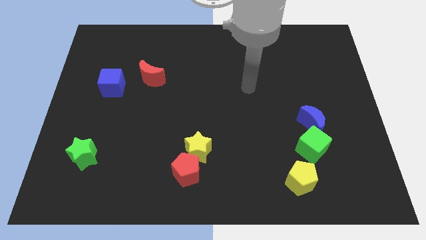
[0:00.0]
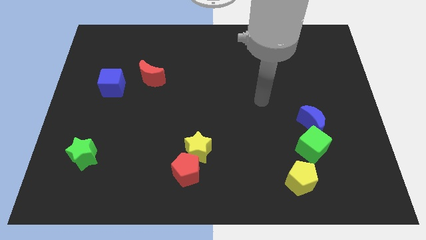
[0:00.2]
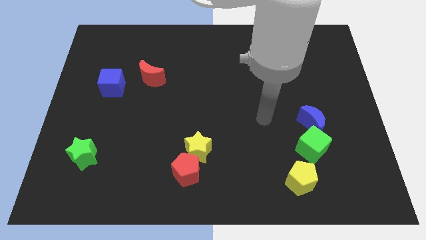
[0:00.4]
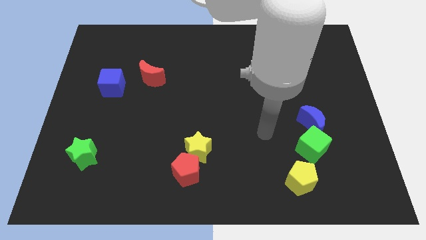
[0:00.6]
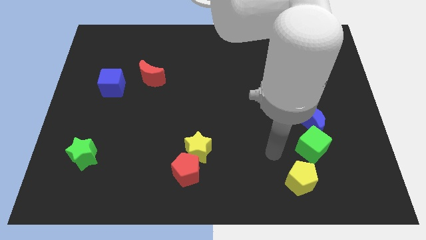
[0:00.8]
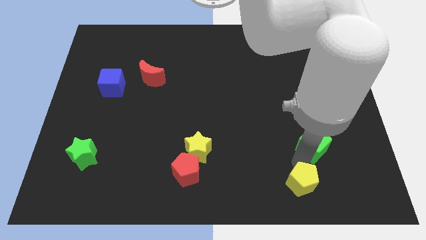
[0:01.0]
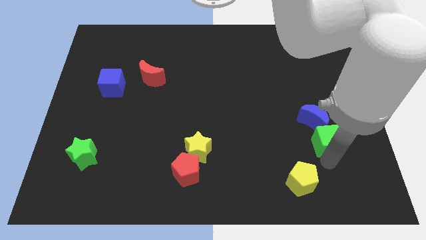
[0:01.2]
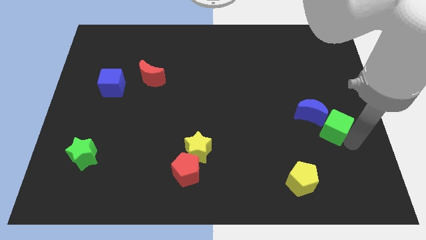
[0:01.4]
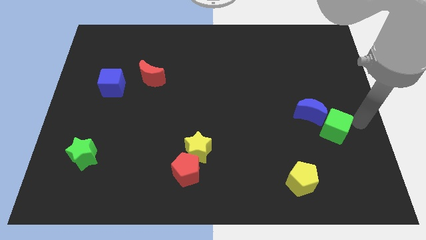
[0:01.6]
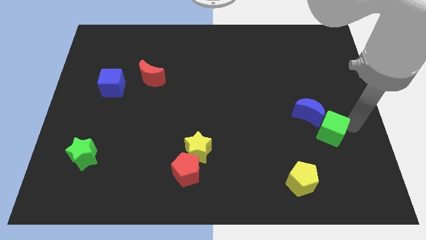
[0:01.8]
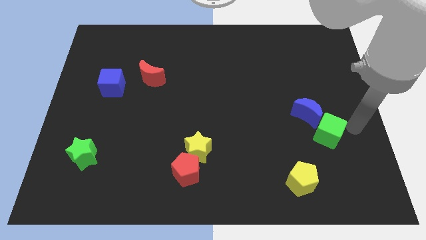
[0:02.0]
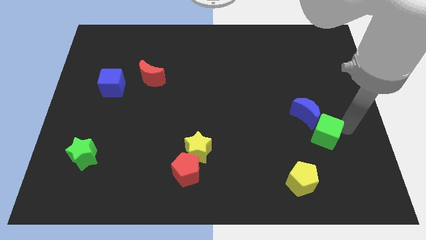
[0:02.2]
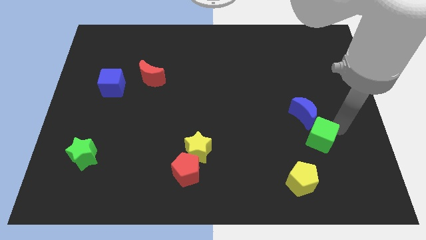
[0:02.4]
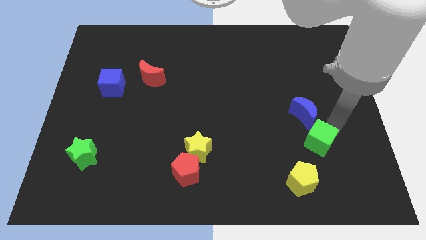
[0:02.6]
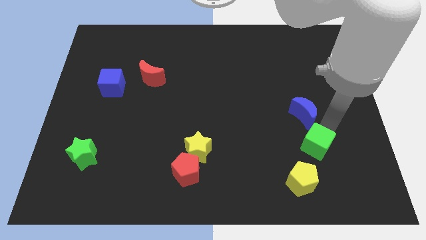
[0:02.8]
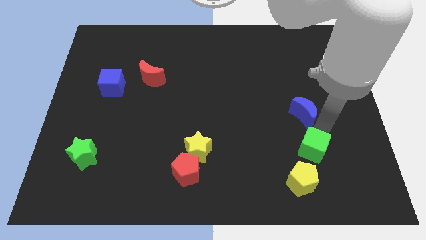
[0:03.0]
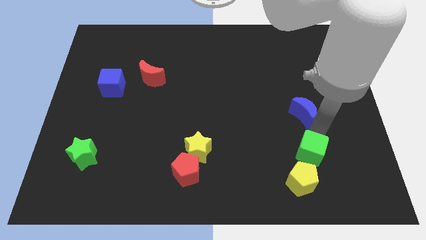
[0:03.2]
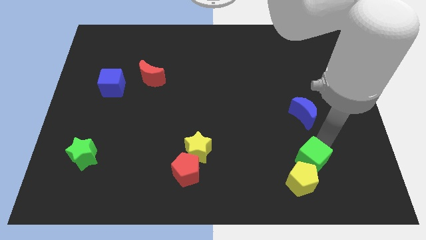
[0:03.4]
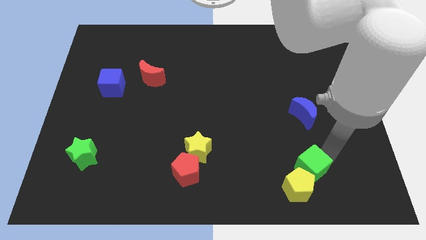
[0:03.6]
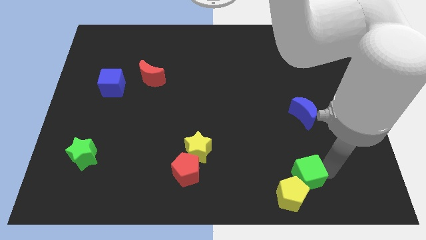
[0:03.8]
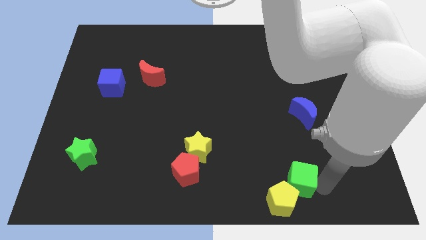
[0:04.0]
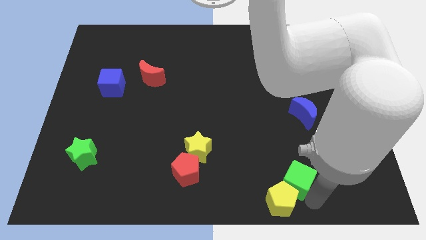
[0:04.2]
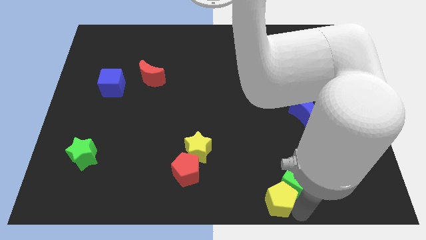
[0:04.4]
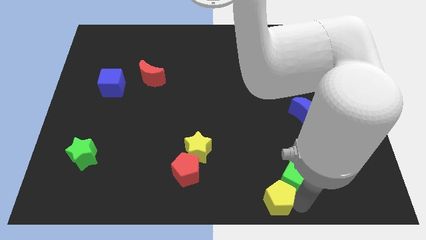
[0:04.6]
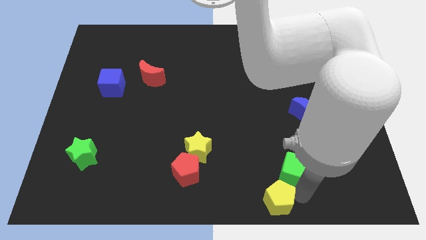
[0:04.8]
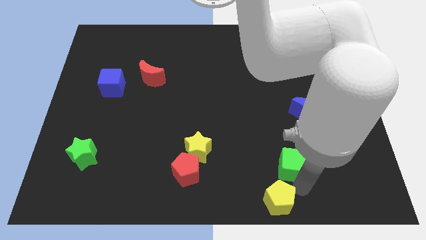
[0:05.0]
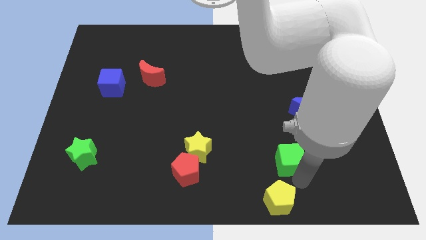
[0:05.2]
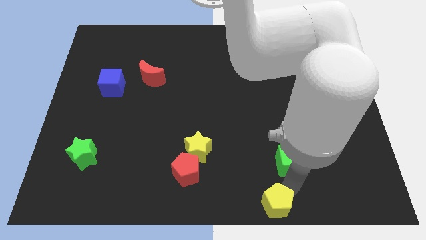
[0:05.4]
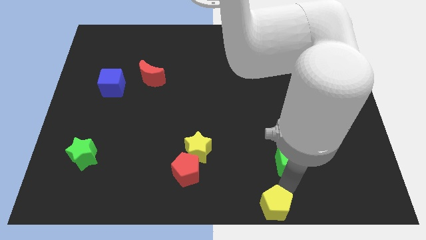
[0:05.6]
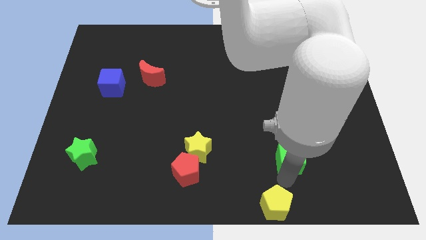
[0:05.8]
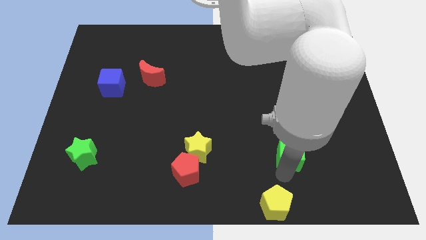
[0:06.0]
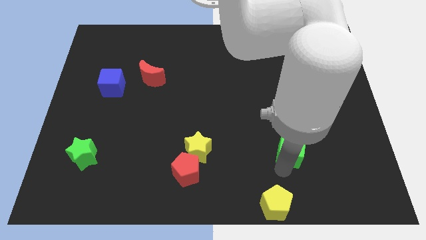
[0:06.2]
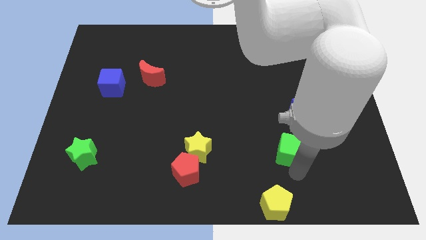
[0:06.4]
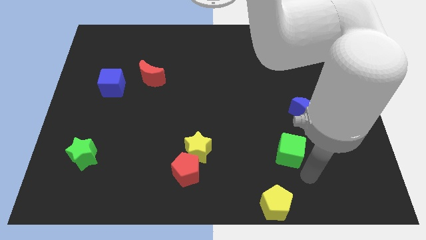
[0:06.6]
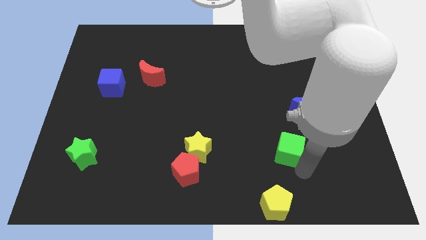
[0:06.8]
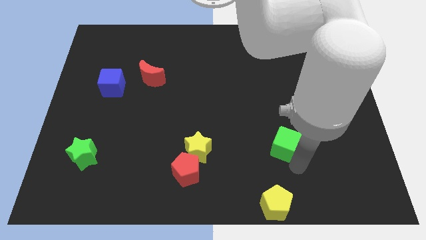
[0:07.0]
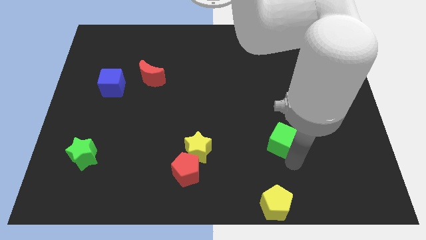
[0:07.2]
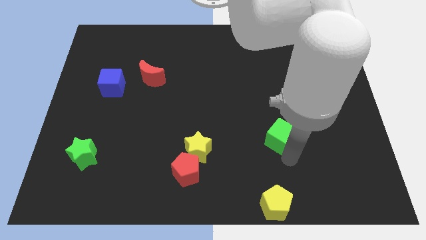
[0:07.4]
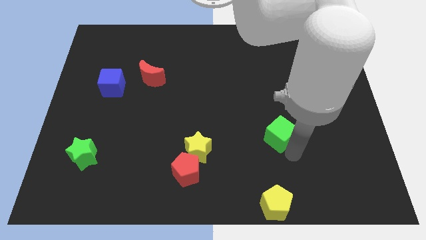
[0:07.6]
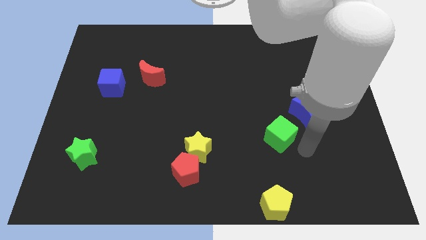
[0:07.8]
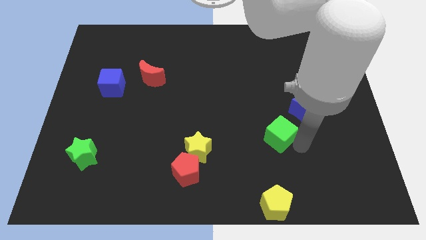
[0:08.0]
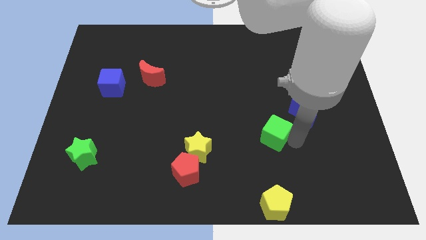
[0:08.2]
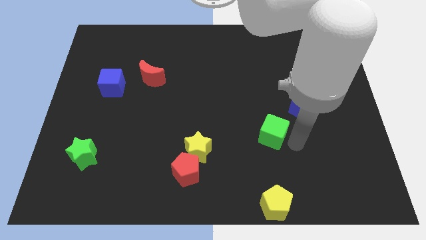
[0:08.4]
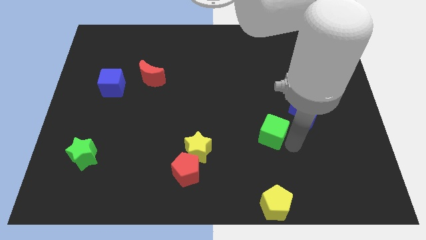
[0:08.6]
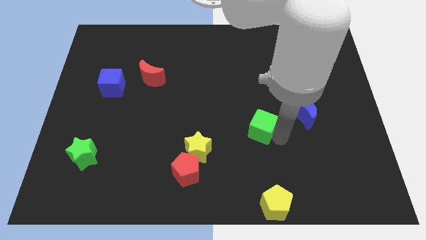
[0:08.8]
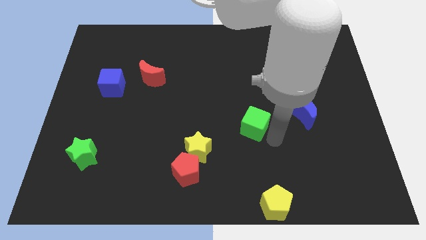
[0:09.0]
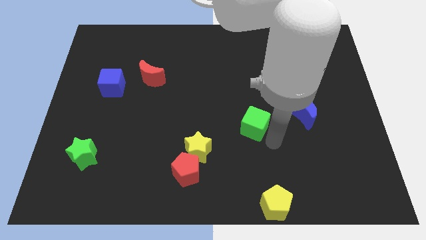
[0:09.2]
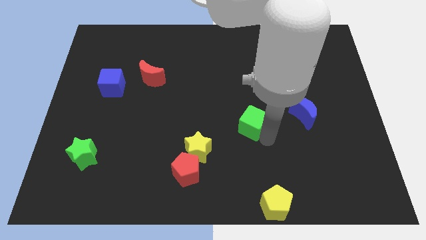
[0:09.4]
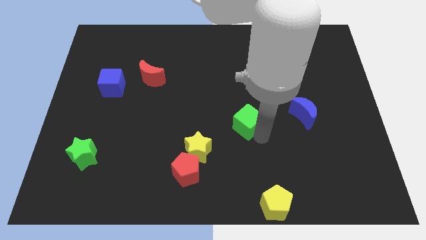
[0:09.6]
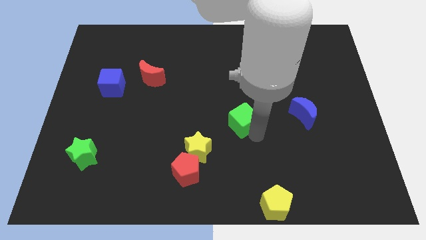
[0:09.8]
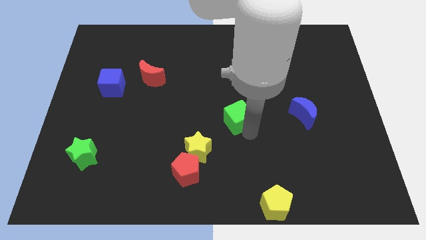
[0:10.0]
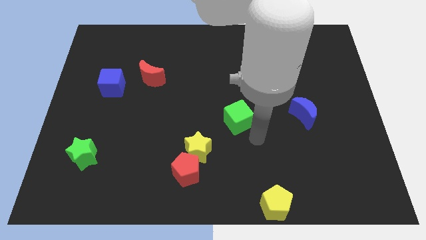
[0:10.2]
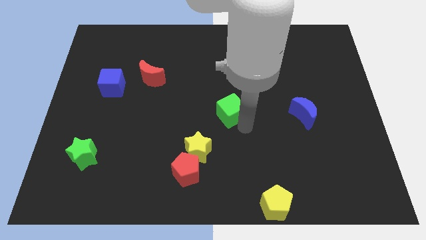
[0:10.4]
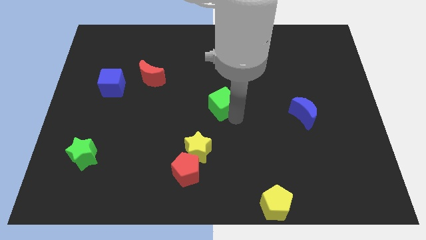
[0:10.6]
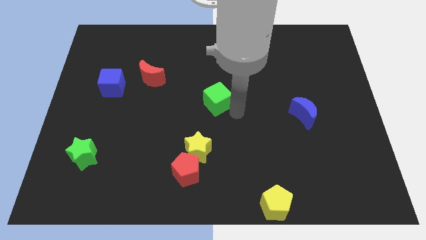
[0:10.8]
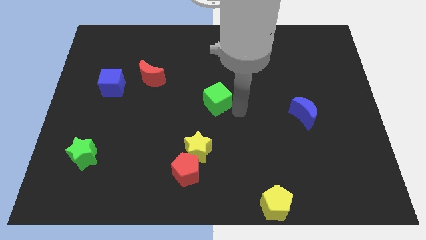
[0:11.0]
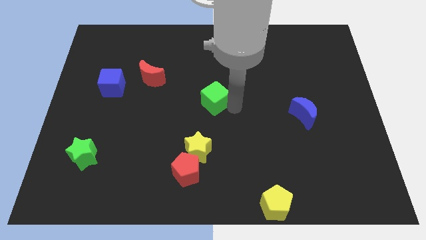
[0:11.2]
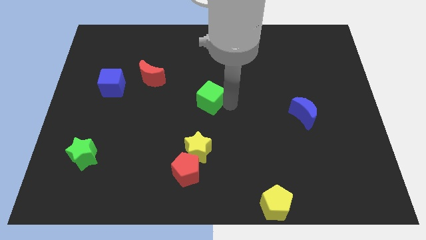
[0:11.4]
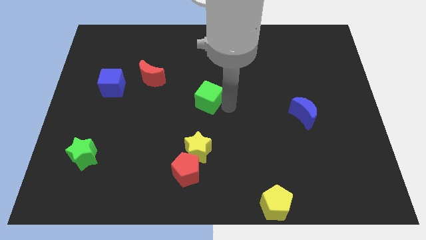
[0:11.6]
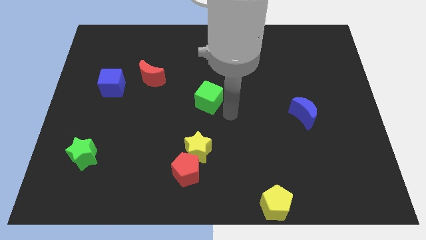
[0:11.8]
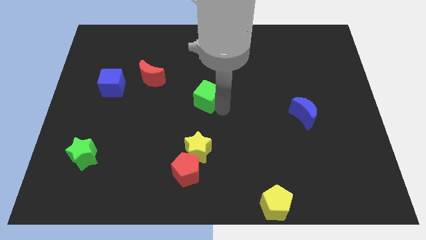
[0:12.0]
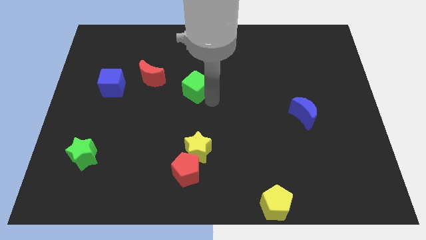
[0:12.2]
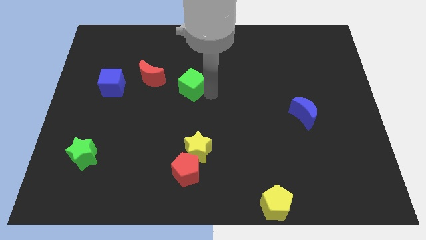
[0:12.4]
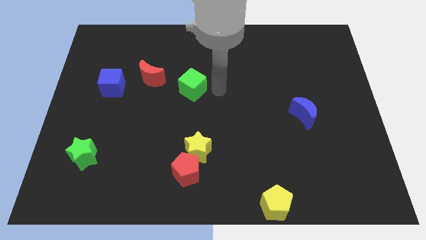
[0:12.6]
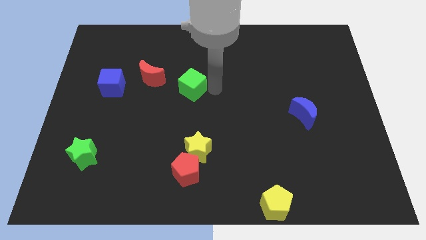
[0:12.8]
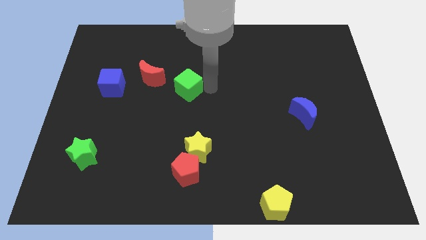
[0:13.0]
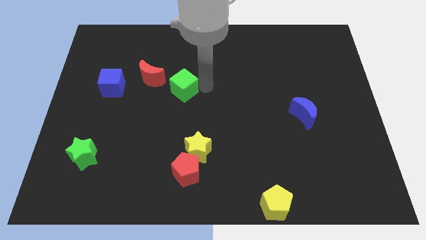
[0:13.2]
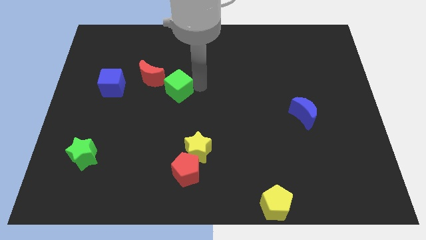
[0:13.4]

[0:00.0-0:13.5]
slide the green cube right of the blue cube
